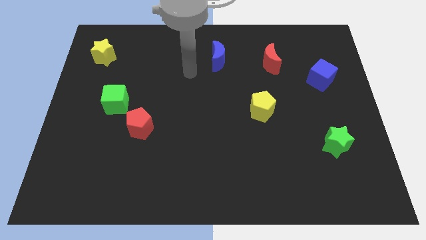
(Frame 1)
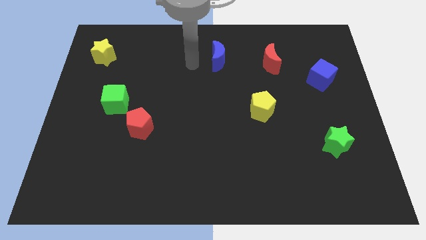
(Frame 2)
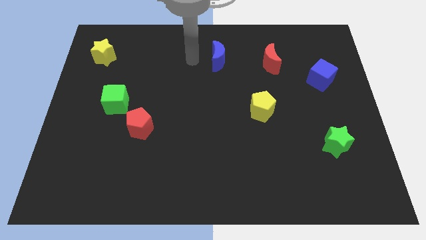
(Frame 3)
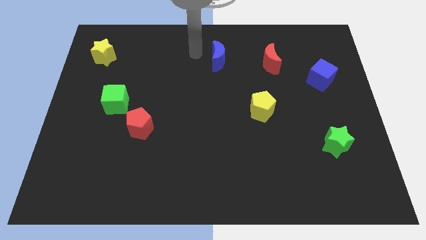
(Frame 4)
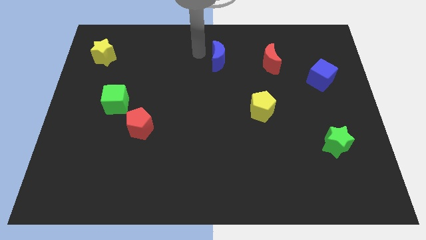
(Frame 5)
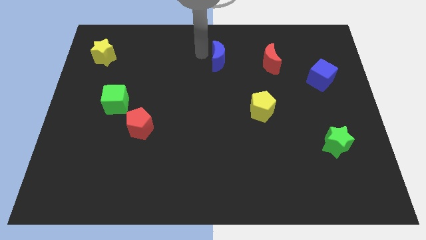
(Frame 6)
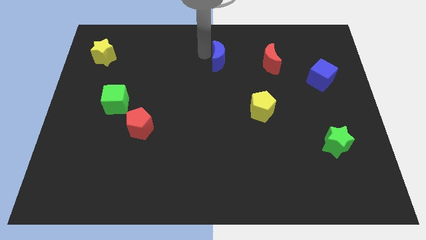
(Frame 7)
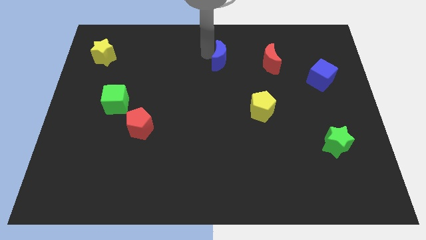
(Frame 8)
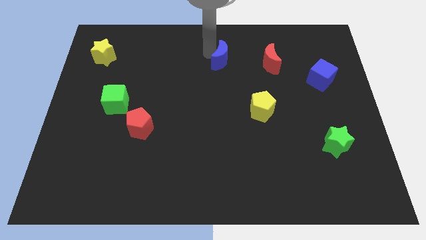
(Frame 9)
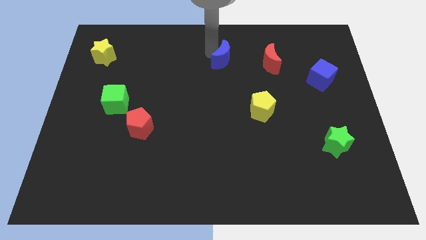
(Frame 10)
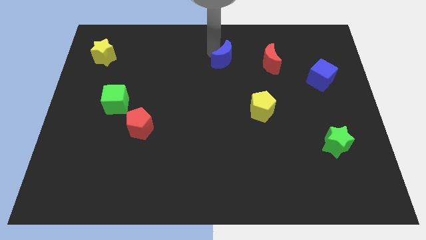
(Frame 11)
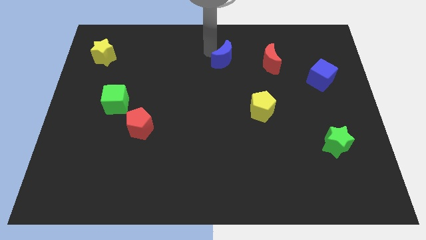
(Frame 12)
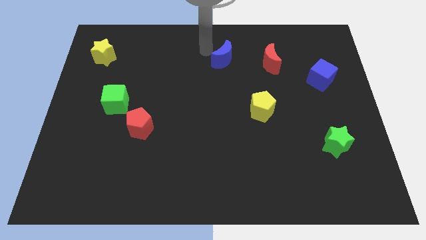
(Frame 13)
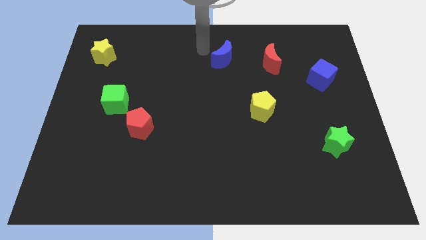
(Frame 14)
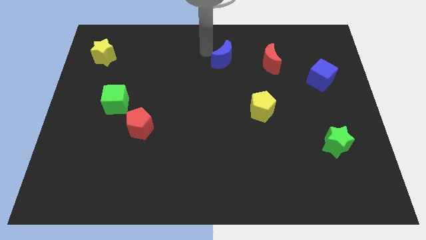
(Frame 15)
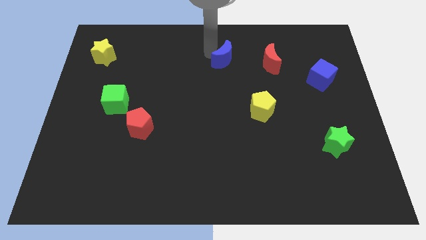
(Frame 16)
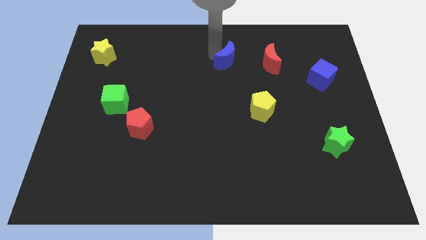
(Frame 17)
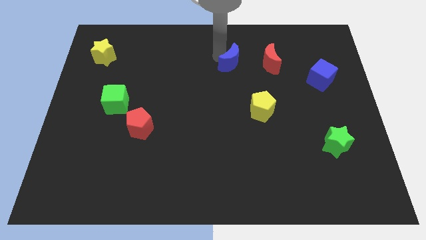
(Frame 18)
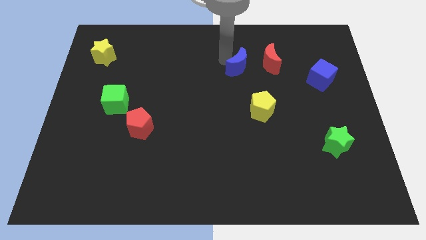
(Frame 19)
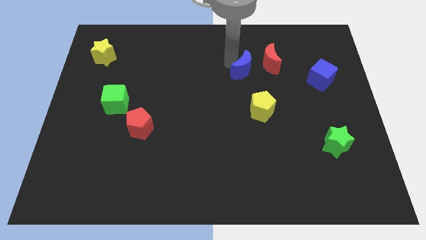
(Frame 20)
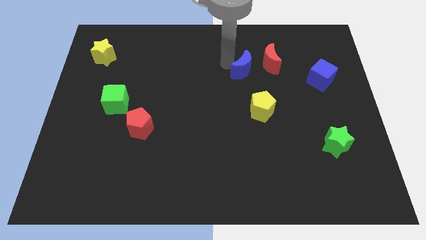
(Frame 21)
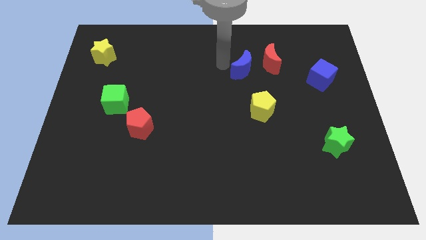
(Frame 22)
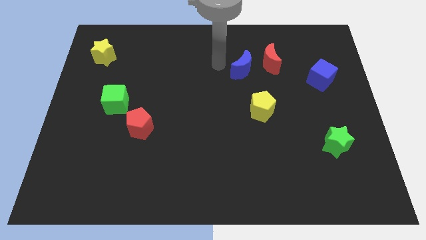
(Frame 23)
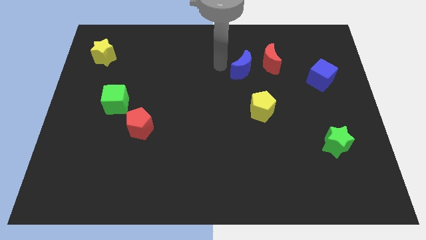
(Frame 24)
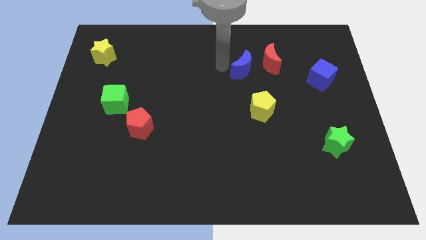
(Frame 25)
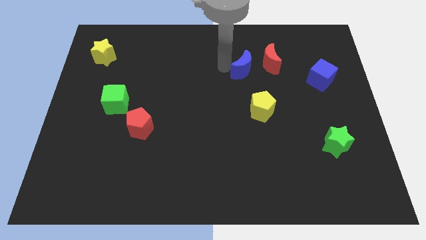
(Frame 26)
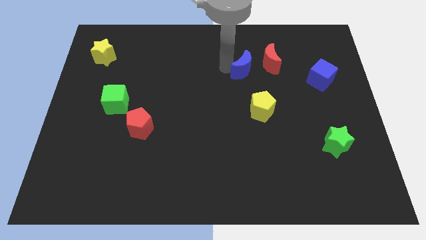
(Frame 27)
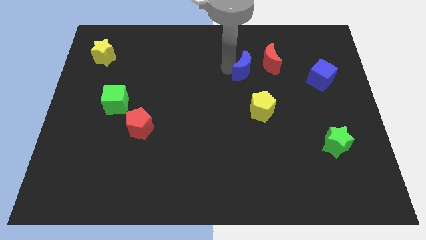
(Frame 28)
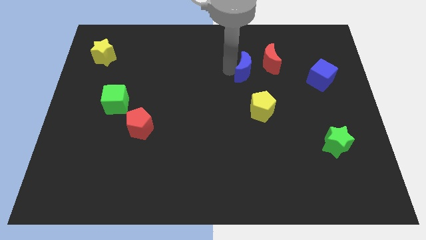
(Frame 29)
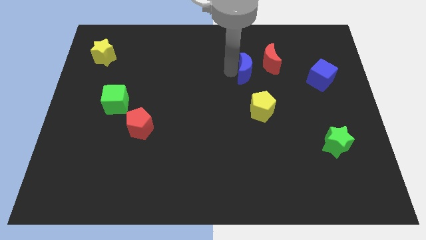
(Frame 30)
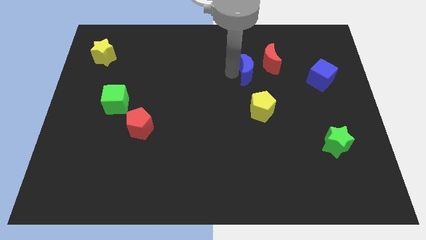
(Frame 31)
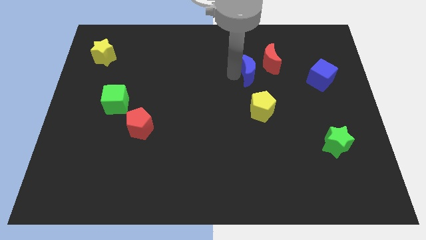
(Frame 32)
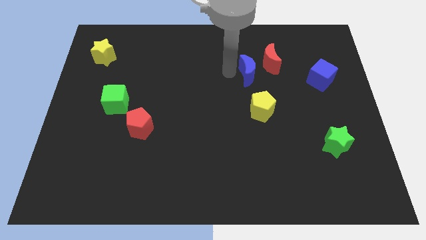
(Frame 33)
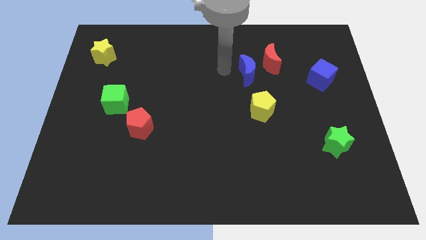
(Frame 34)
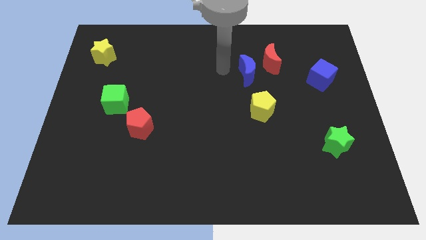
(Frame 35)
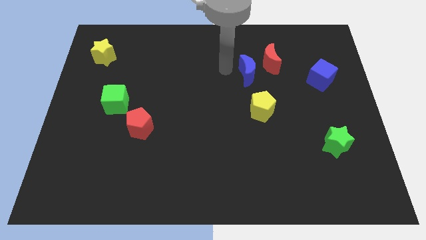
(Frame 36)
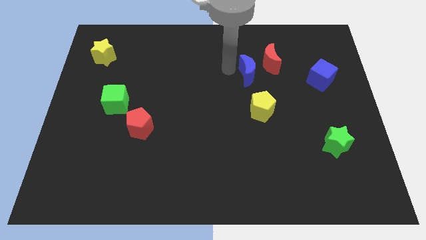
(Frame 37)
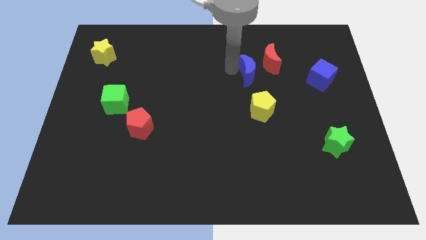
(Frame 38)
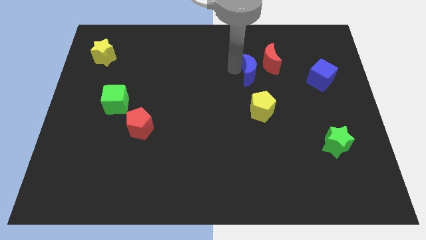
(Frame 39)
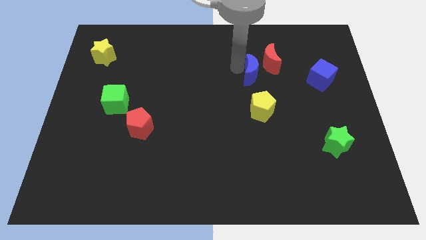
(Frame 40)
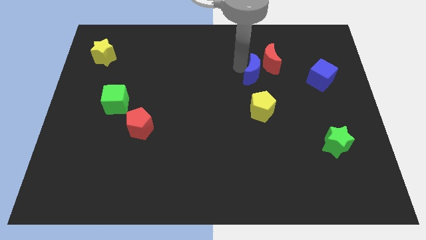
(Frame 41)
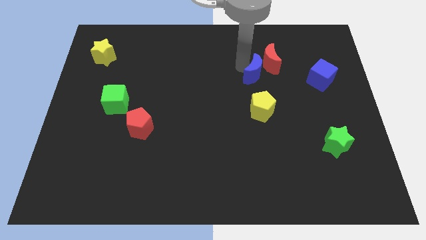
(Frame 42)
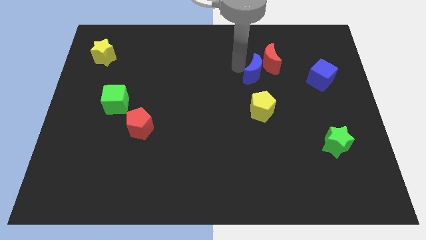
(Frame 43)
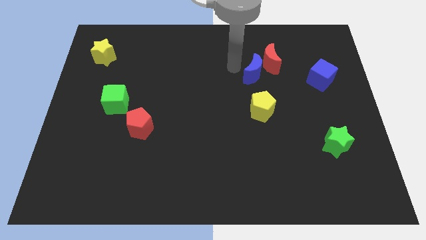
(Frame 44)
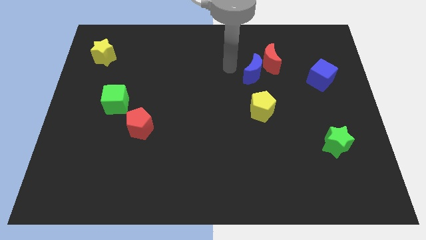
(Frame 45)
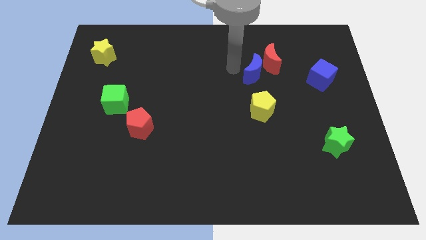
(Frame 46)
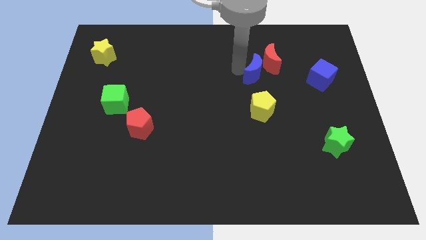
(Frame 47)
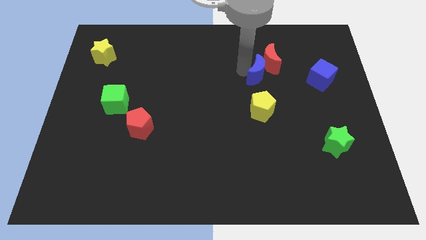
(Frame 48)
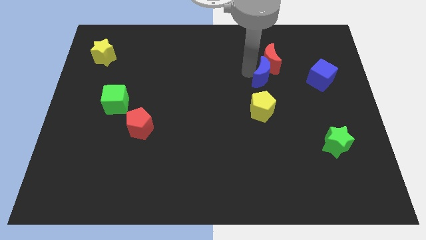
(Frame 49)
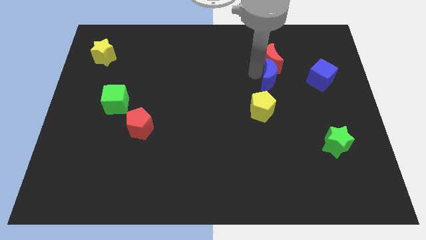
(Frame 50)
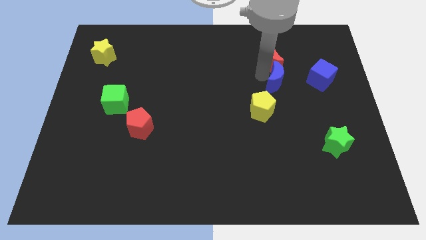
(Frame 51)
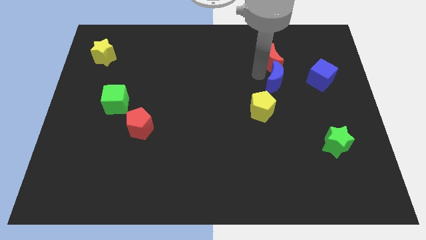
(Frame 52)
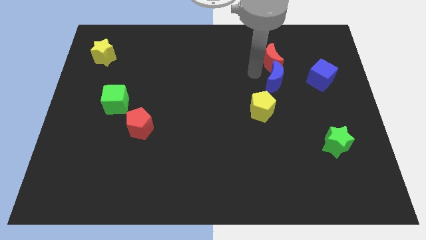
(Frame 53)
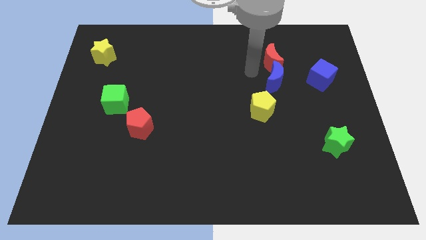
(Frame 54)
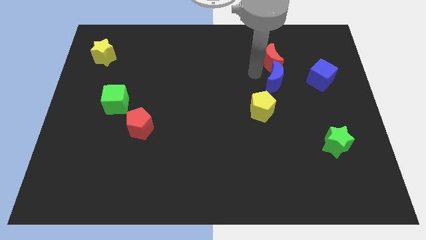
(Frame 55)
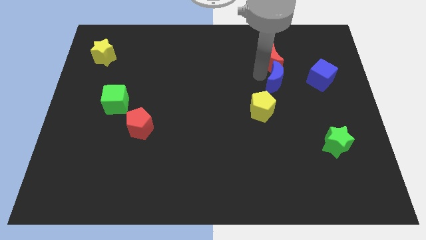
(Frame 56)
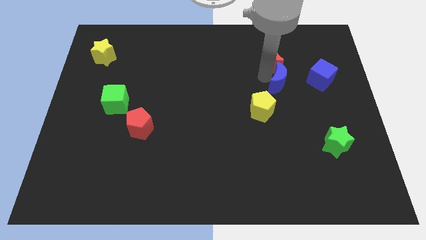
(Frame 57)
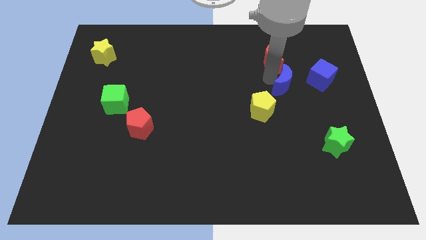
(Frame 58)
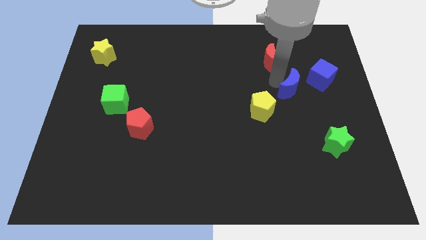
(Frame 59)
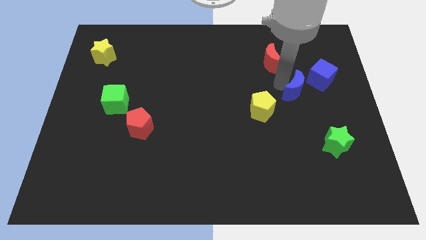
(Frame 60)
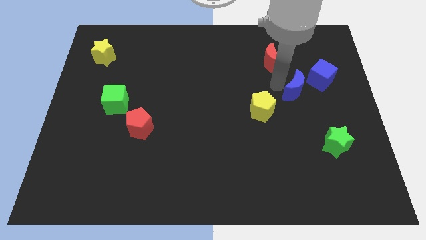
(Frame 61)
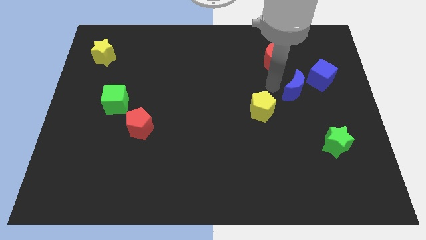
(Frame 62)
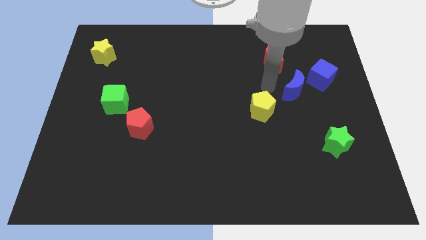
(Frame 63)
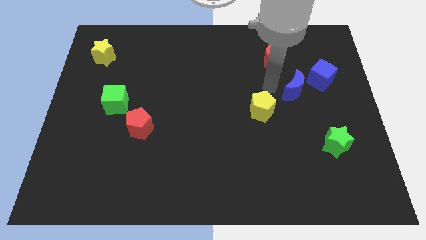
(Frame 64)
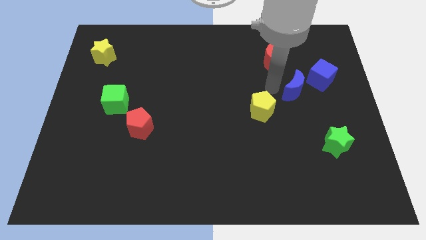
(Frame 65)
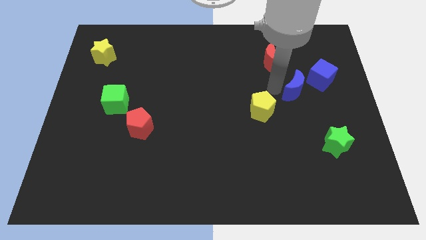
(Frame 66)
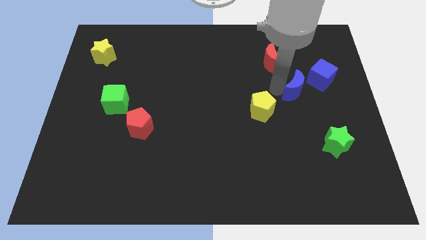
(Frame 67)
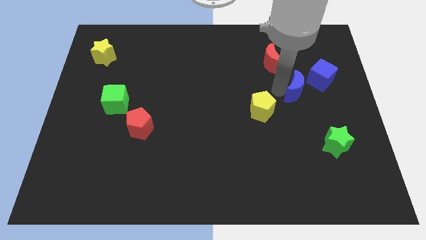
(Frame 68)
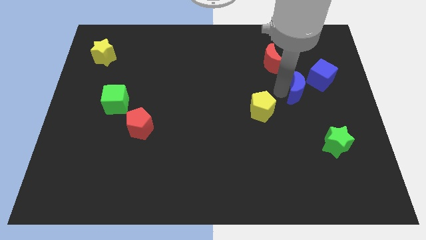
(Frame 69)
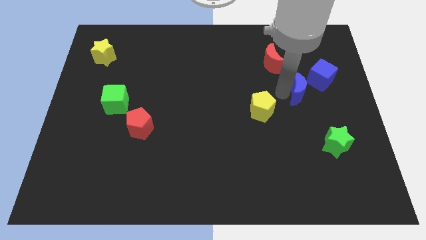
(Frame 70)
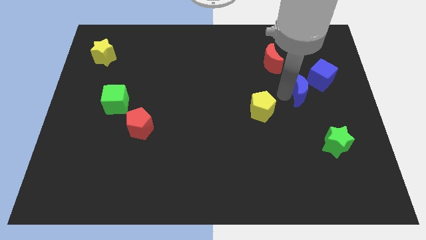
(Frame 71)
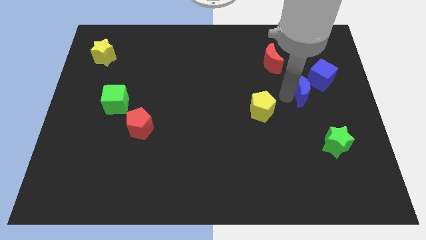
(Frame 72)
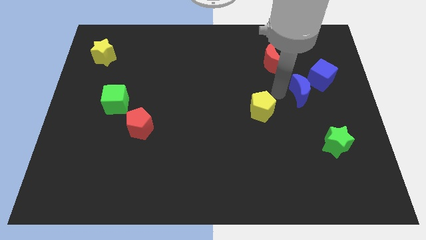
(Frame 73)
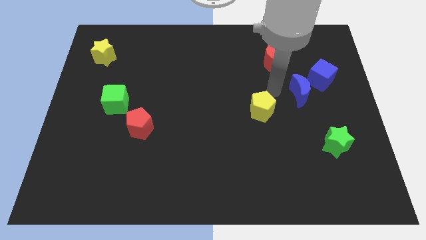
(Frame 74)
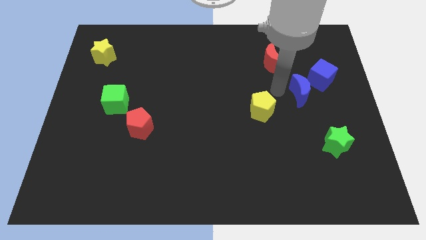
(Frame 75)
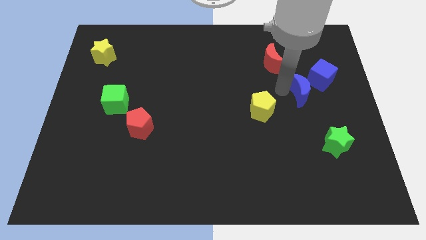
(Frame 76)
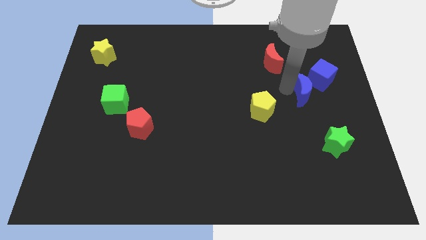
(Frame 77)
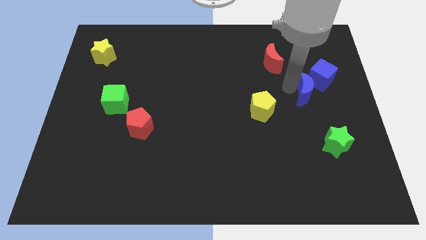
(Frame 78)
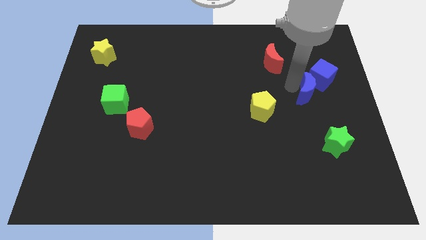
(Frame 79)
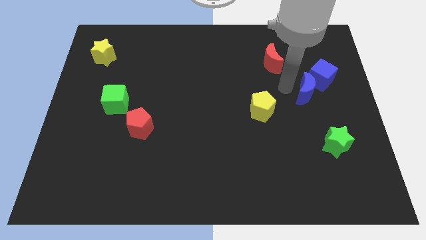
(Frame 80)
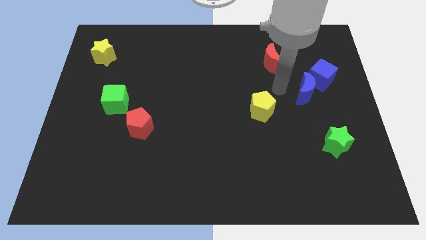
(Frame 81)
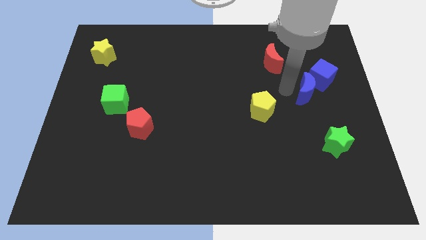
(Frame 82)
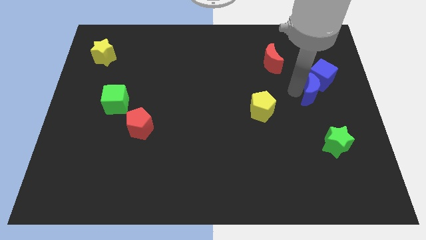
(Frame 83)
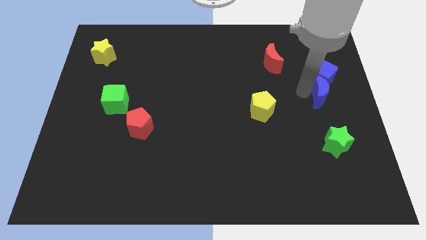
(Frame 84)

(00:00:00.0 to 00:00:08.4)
slide the blue moon to the right side
